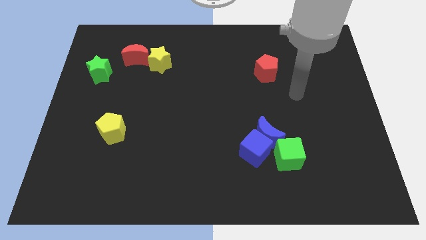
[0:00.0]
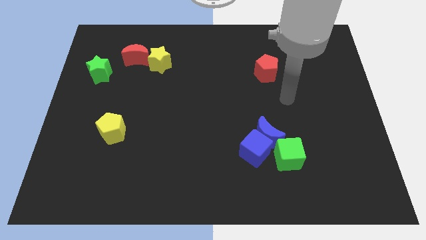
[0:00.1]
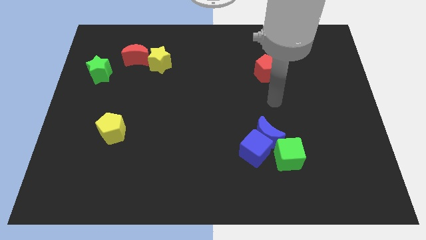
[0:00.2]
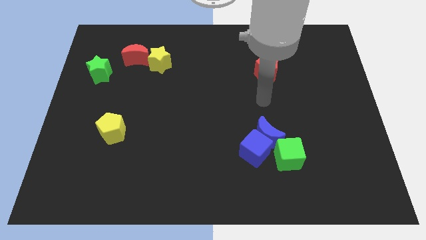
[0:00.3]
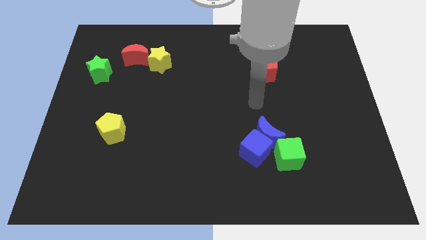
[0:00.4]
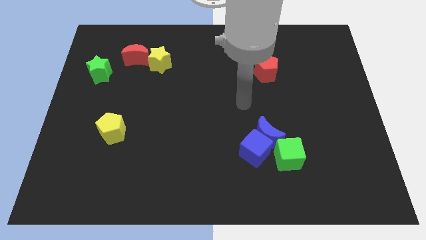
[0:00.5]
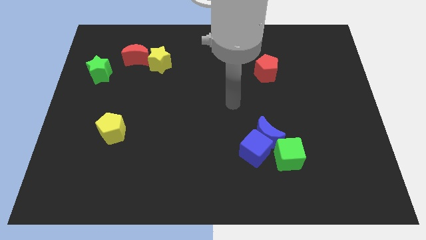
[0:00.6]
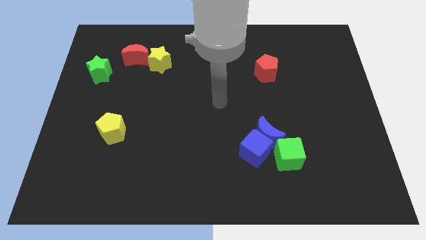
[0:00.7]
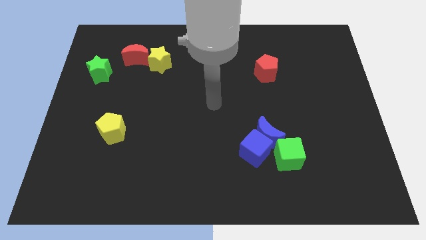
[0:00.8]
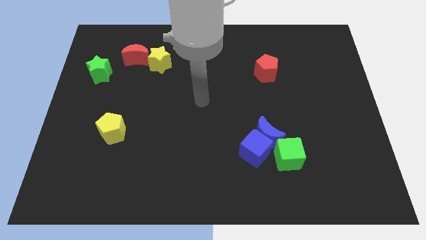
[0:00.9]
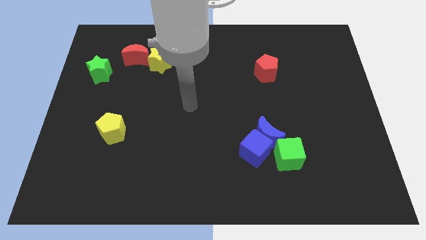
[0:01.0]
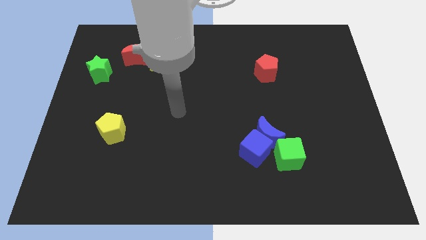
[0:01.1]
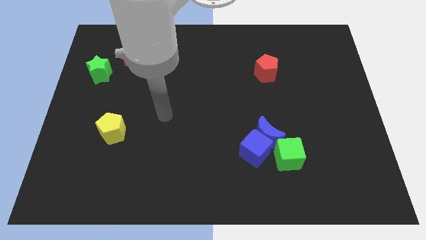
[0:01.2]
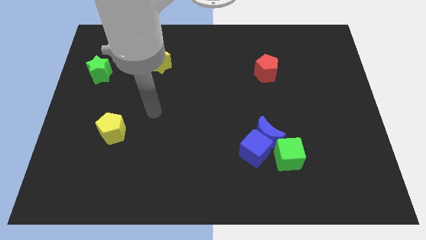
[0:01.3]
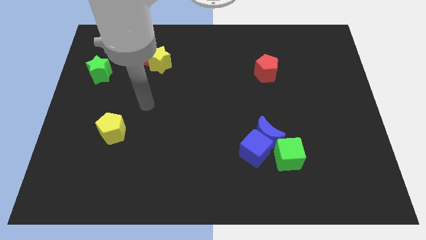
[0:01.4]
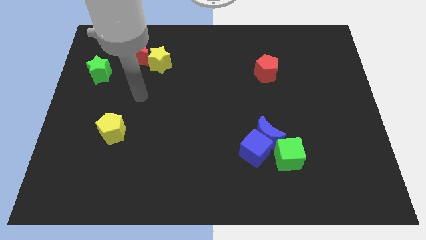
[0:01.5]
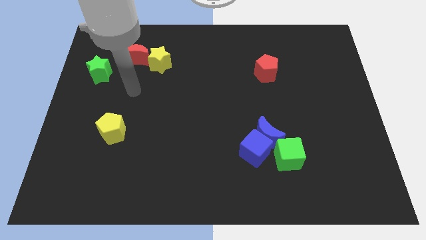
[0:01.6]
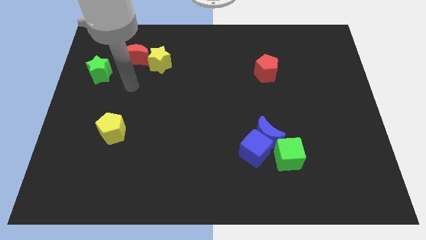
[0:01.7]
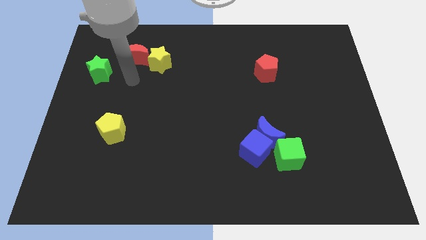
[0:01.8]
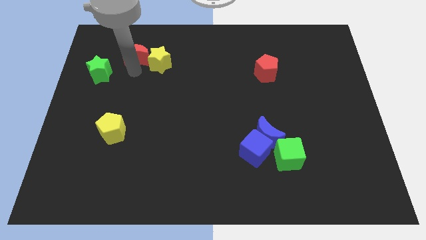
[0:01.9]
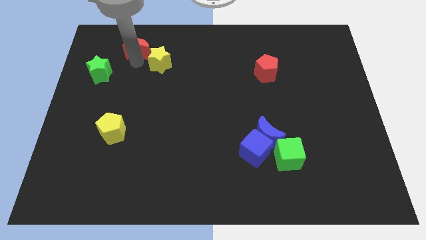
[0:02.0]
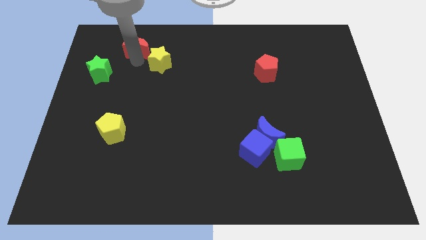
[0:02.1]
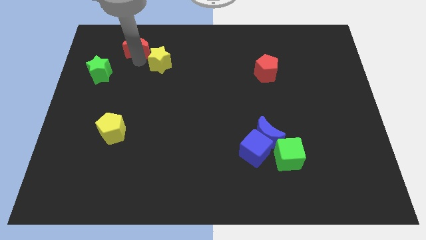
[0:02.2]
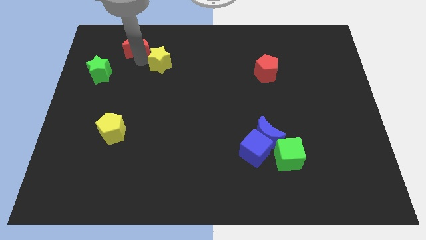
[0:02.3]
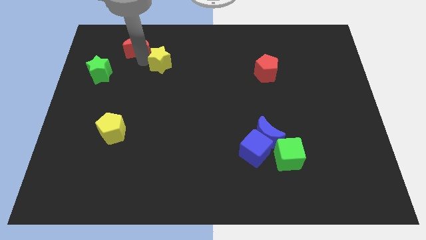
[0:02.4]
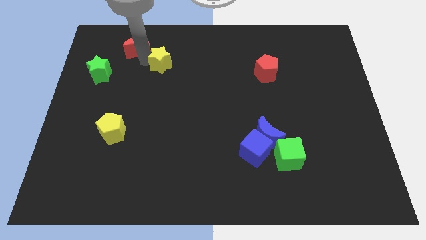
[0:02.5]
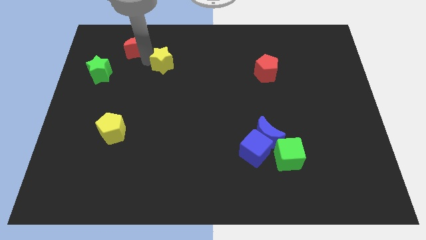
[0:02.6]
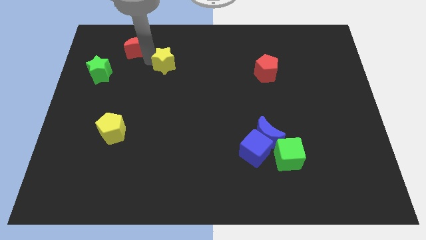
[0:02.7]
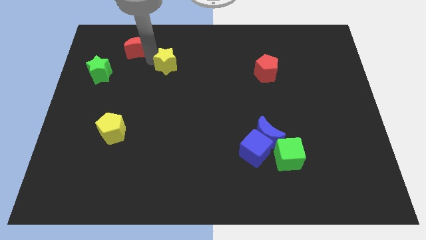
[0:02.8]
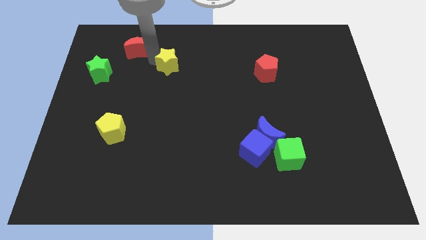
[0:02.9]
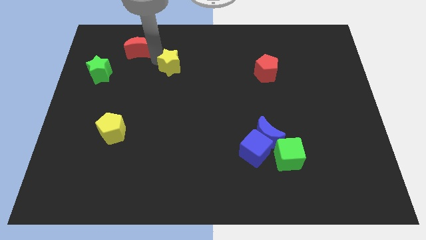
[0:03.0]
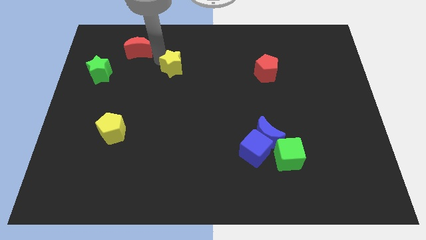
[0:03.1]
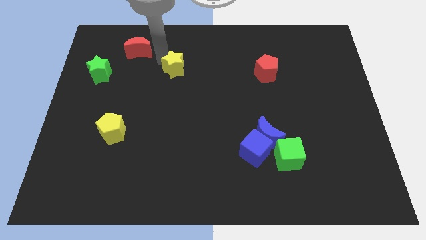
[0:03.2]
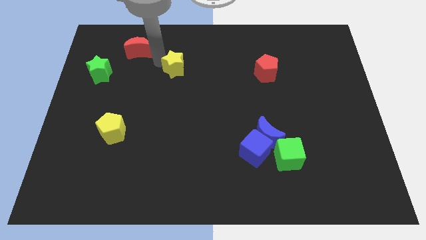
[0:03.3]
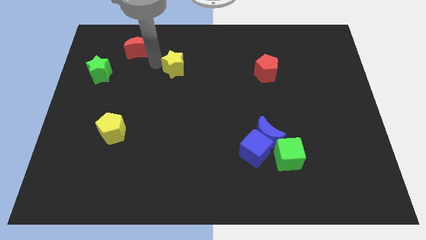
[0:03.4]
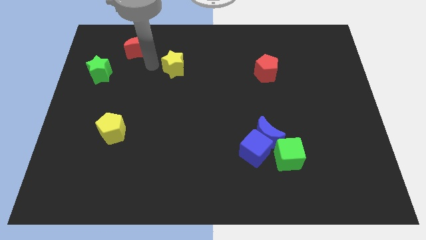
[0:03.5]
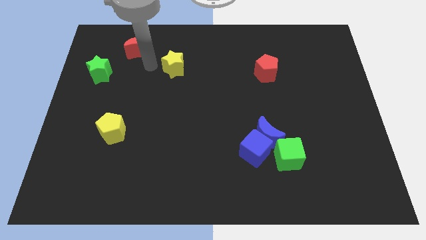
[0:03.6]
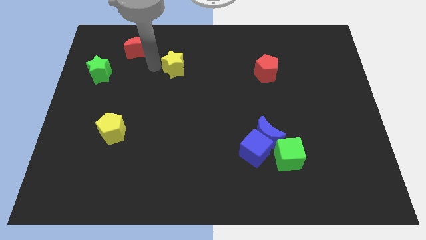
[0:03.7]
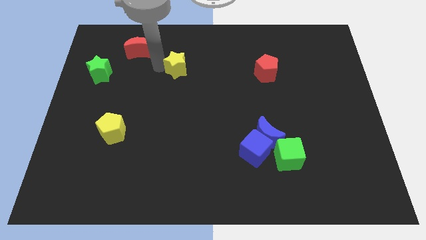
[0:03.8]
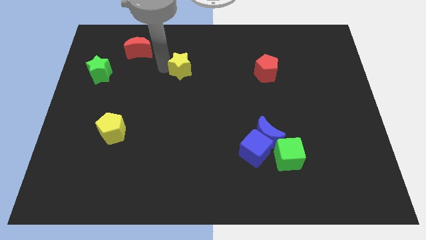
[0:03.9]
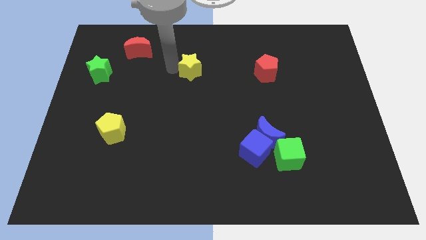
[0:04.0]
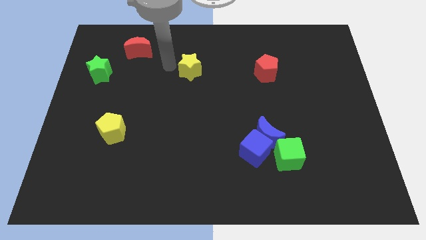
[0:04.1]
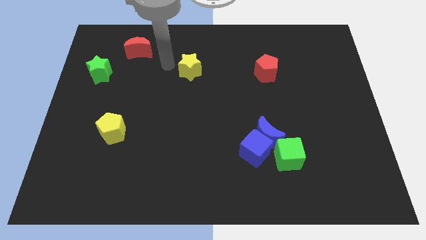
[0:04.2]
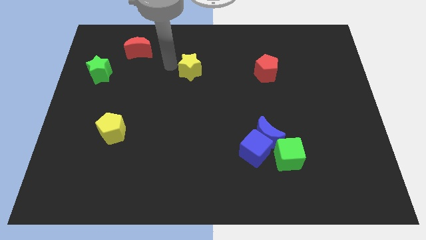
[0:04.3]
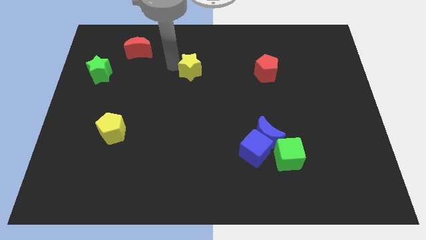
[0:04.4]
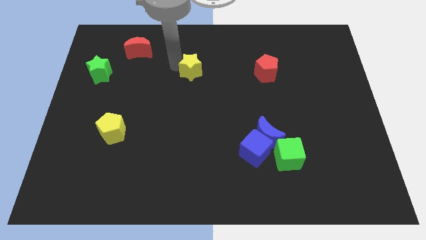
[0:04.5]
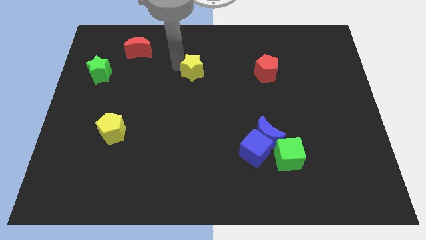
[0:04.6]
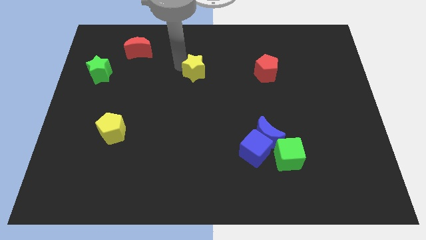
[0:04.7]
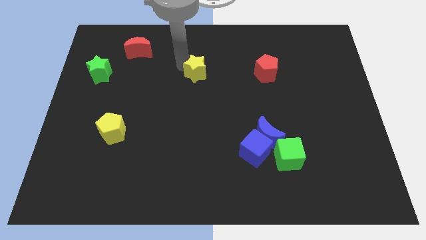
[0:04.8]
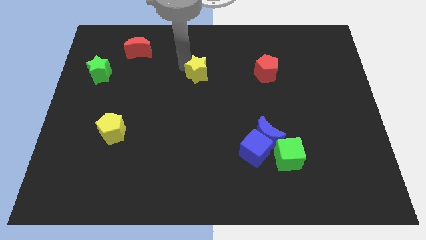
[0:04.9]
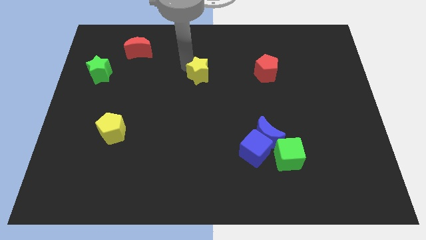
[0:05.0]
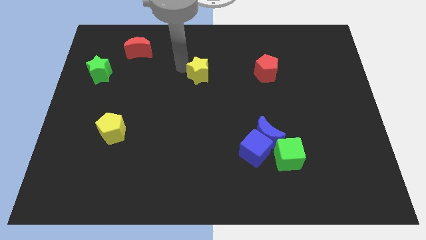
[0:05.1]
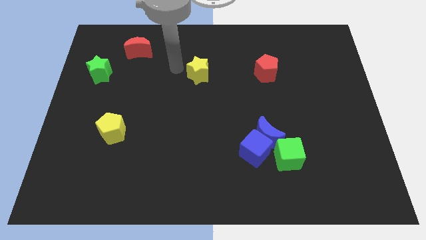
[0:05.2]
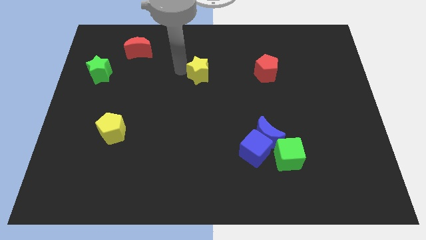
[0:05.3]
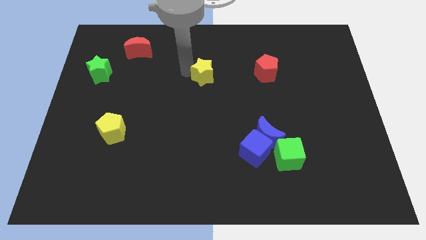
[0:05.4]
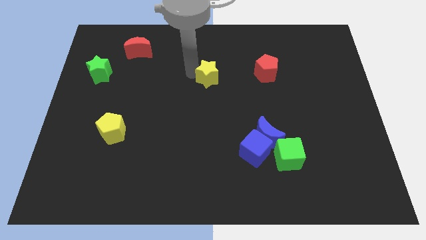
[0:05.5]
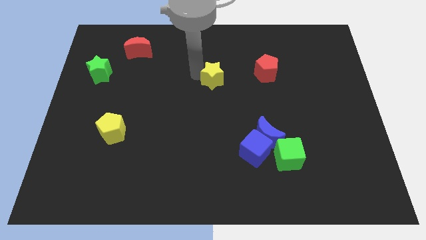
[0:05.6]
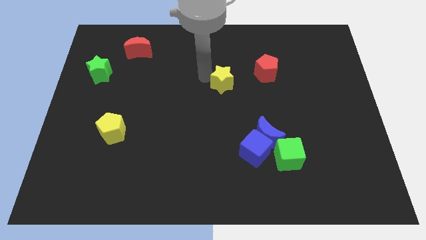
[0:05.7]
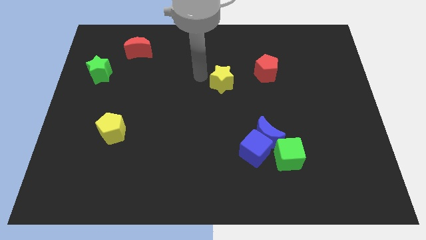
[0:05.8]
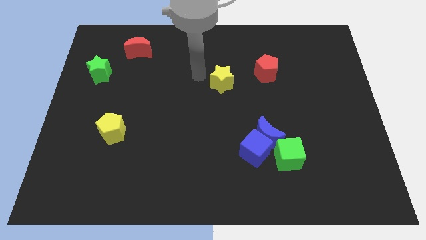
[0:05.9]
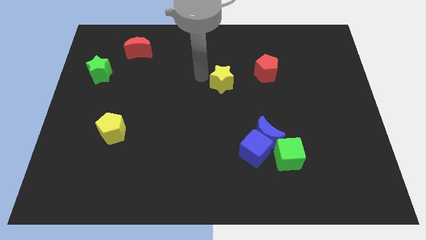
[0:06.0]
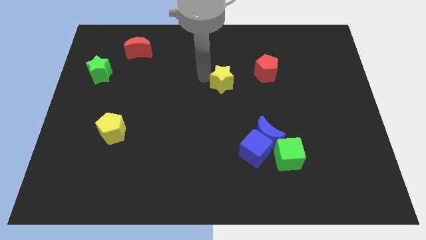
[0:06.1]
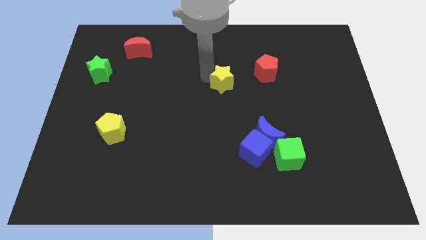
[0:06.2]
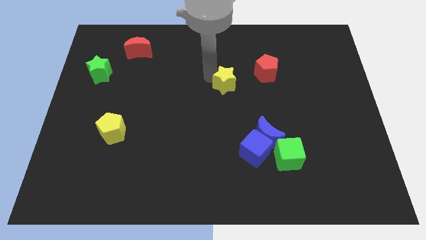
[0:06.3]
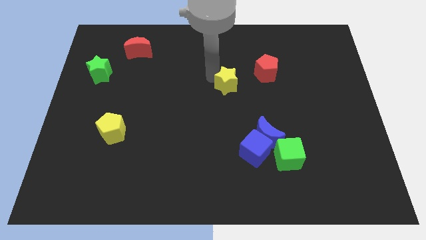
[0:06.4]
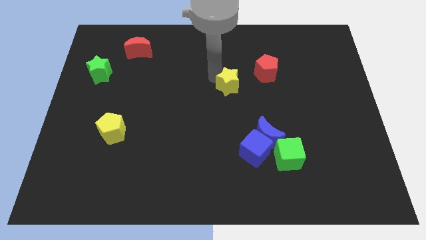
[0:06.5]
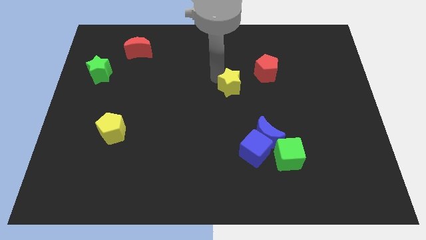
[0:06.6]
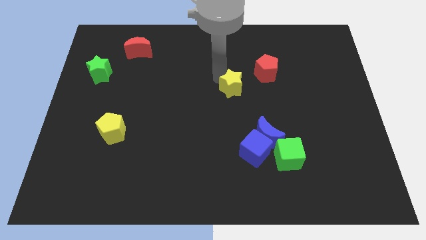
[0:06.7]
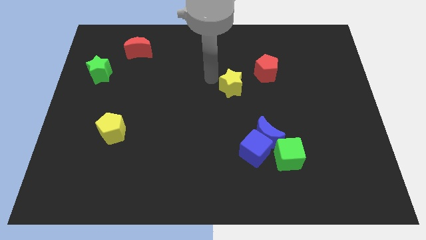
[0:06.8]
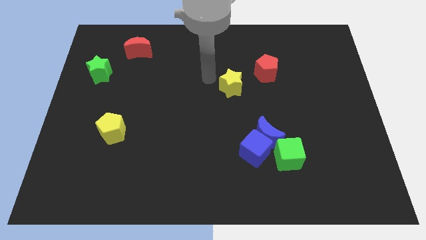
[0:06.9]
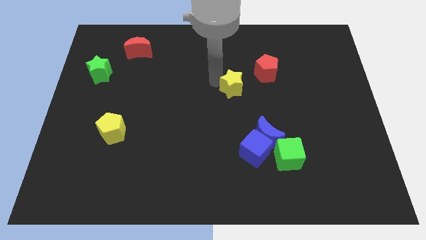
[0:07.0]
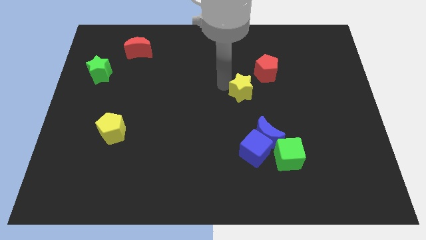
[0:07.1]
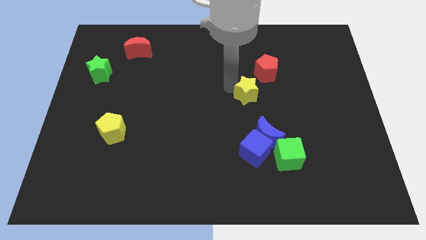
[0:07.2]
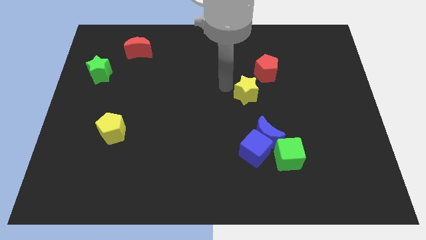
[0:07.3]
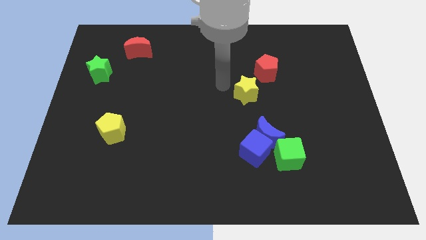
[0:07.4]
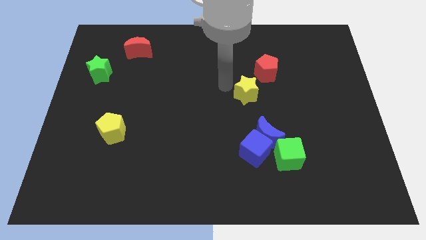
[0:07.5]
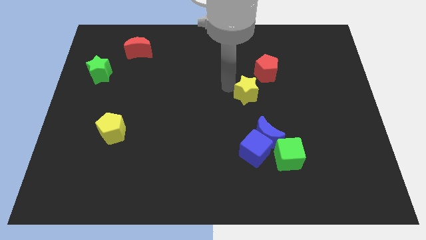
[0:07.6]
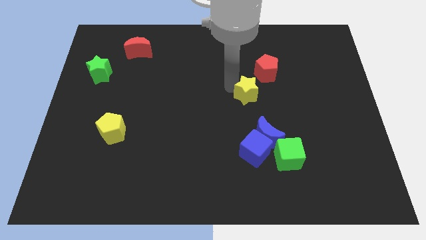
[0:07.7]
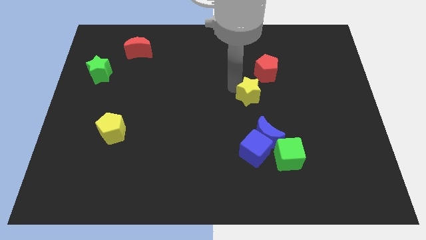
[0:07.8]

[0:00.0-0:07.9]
slide the yellow star below the red pentagon
